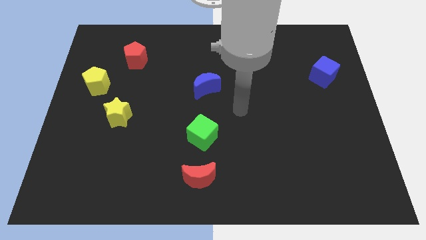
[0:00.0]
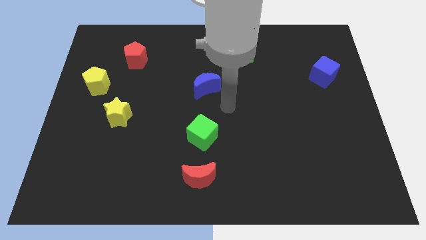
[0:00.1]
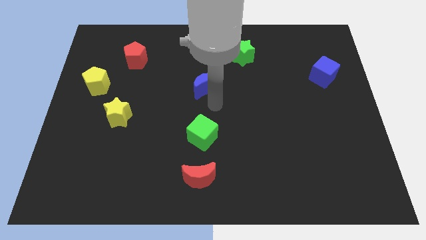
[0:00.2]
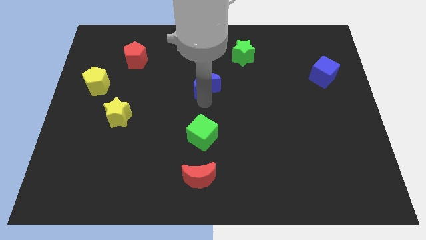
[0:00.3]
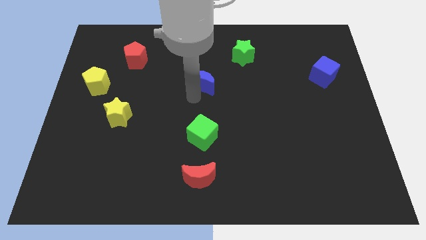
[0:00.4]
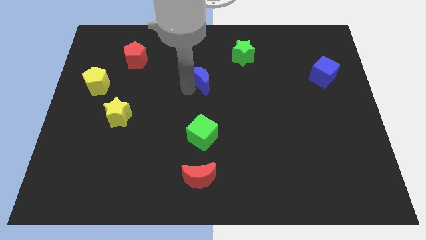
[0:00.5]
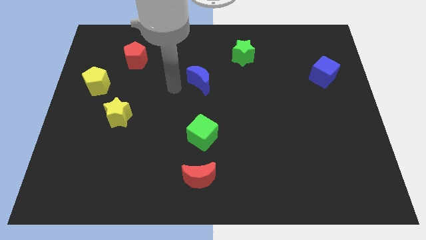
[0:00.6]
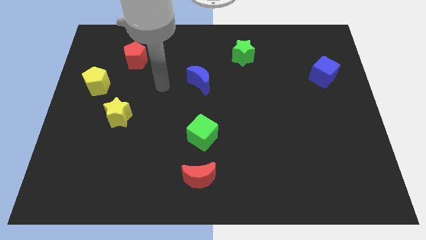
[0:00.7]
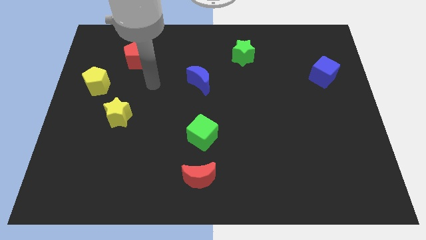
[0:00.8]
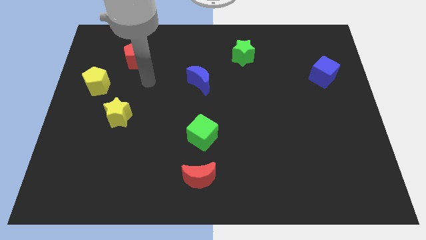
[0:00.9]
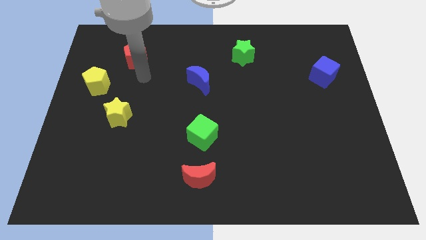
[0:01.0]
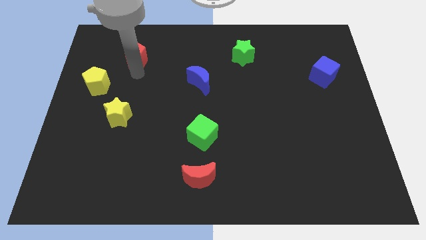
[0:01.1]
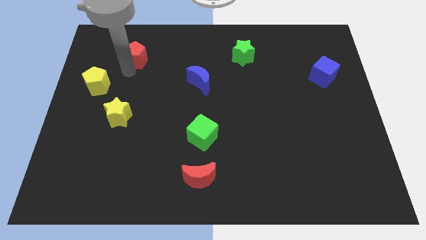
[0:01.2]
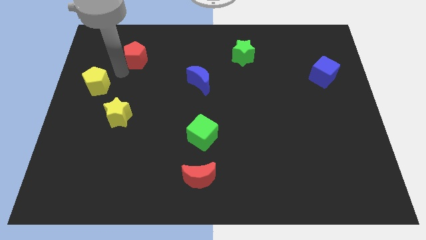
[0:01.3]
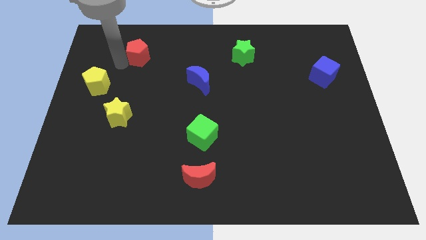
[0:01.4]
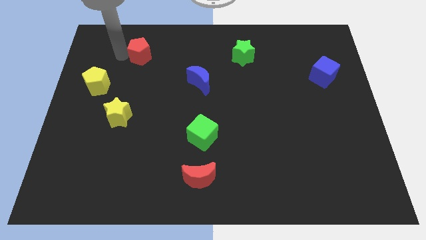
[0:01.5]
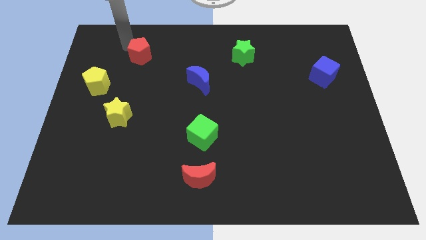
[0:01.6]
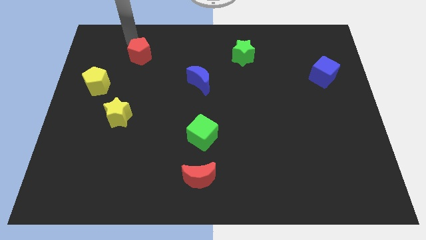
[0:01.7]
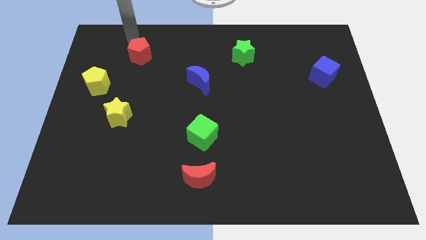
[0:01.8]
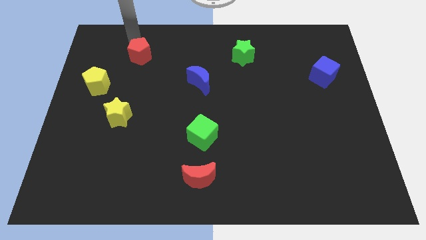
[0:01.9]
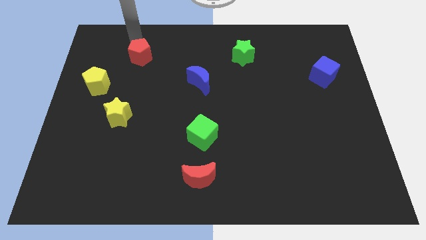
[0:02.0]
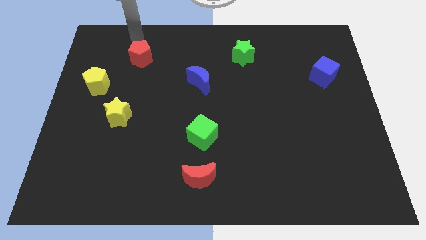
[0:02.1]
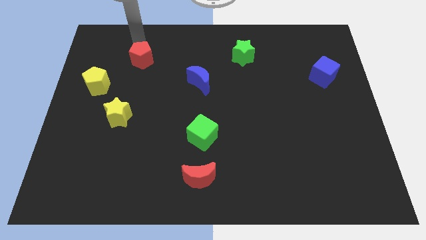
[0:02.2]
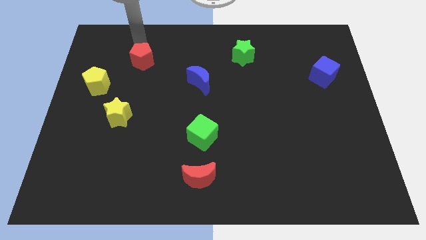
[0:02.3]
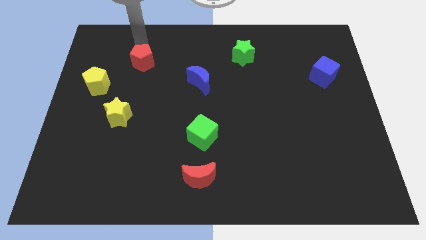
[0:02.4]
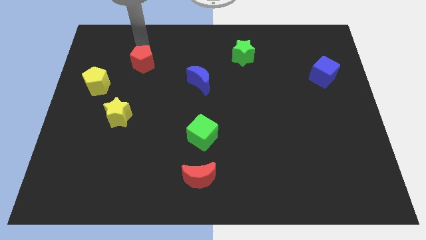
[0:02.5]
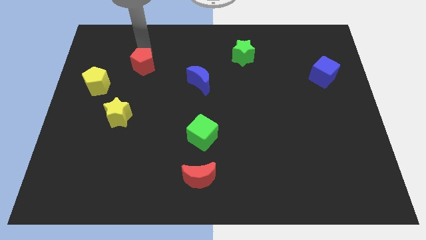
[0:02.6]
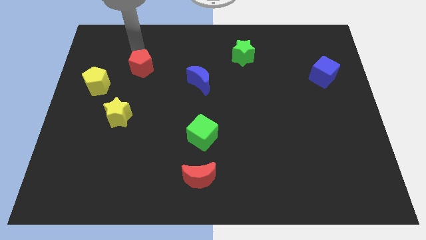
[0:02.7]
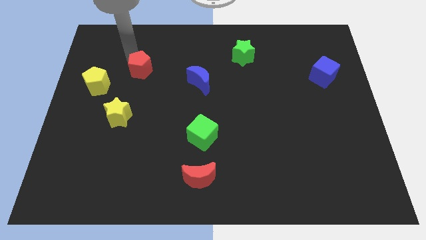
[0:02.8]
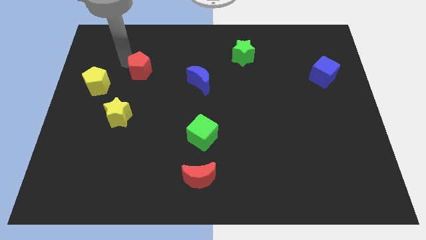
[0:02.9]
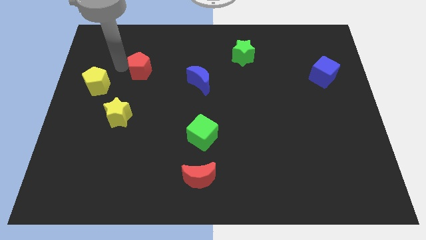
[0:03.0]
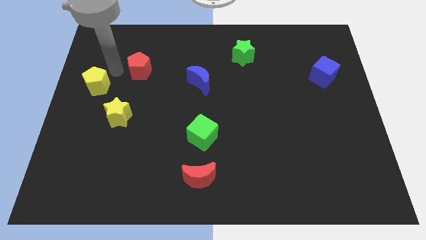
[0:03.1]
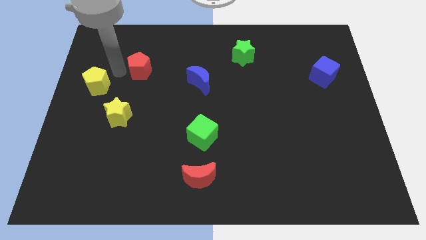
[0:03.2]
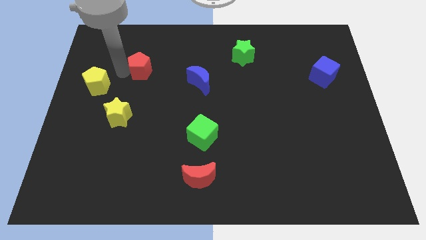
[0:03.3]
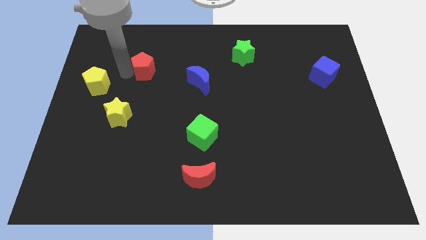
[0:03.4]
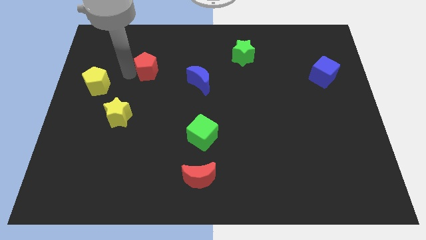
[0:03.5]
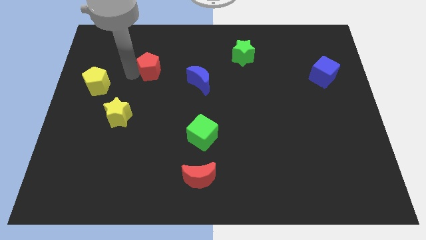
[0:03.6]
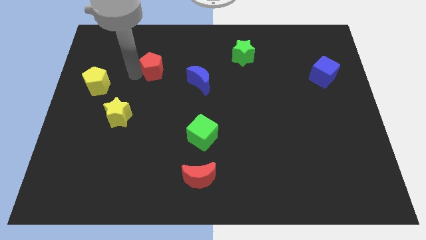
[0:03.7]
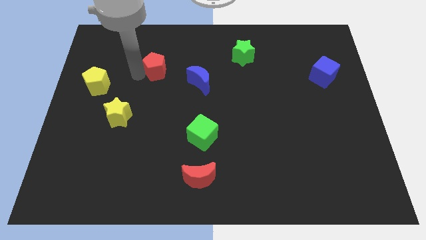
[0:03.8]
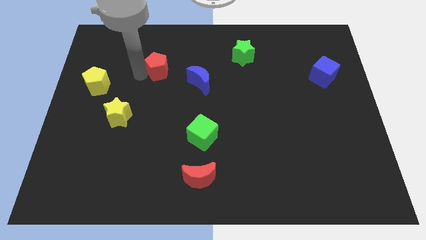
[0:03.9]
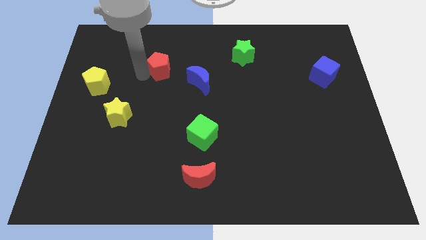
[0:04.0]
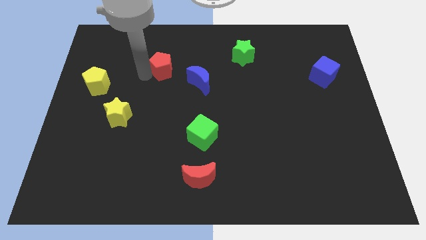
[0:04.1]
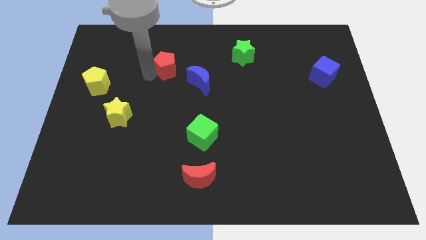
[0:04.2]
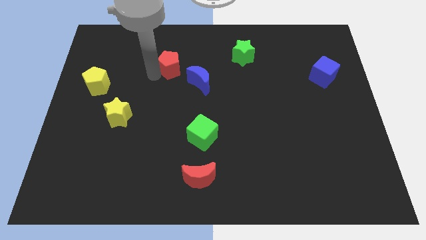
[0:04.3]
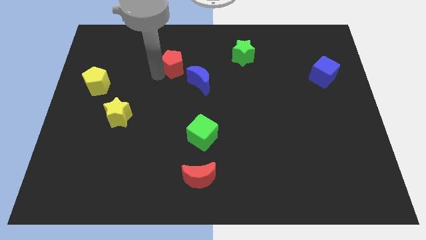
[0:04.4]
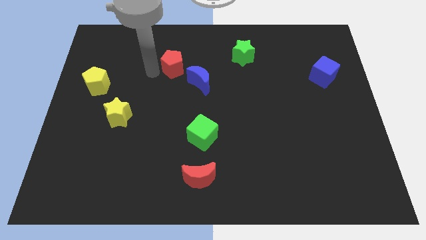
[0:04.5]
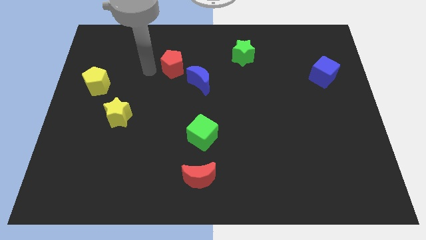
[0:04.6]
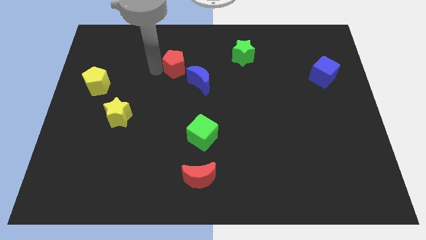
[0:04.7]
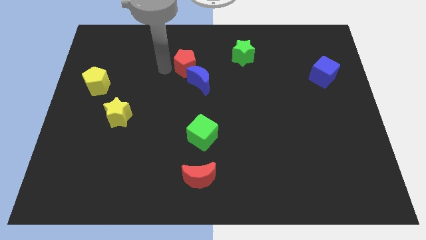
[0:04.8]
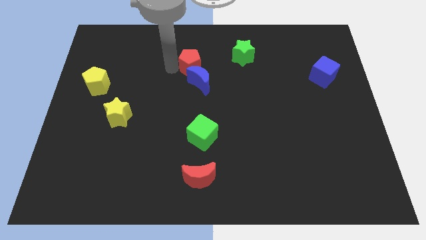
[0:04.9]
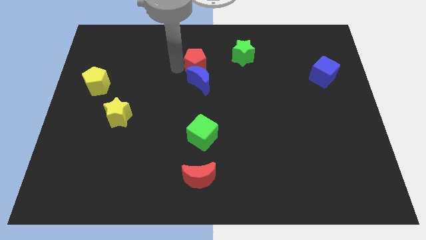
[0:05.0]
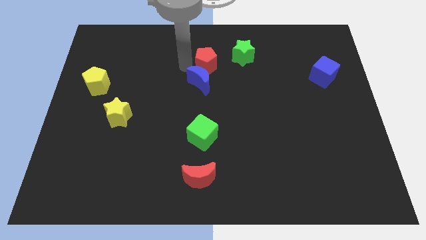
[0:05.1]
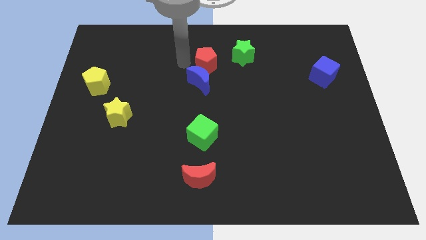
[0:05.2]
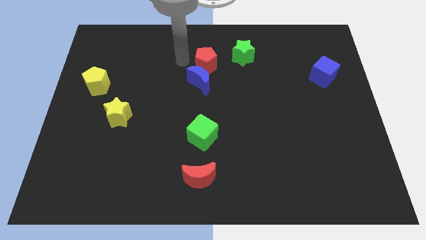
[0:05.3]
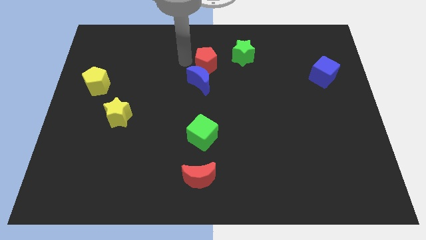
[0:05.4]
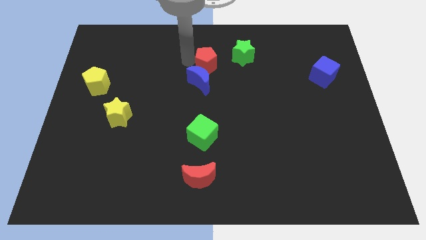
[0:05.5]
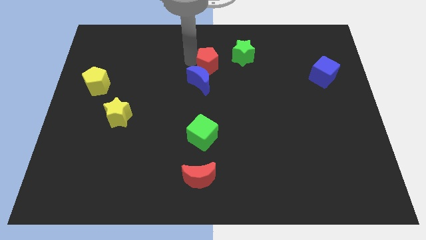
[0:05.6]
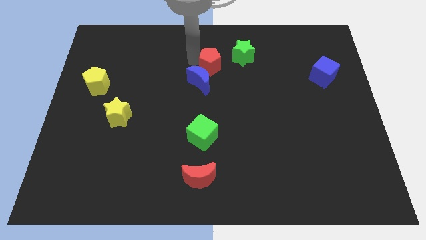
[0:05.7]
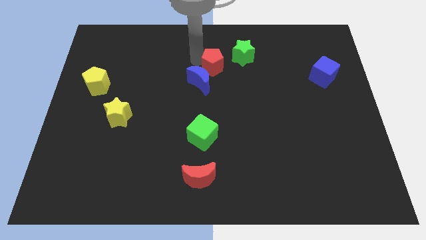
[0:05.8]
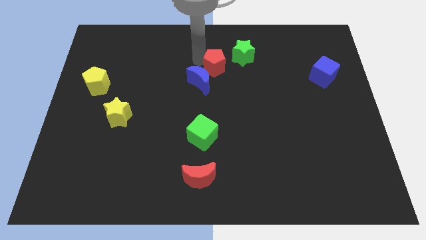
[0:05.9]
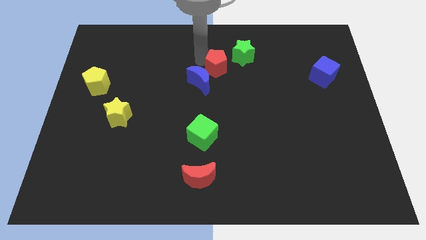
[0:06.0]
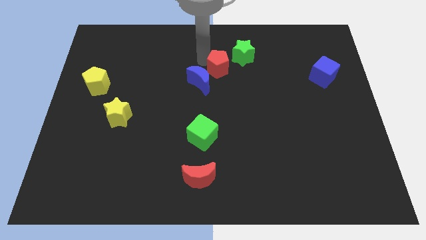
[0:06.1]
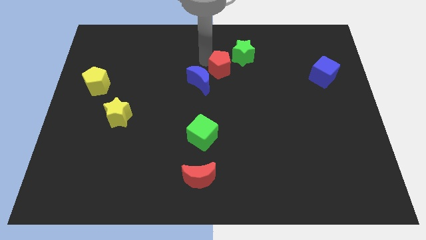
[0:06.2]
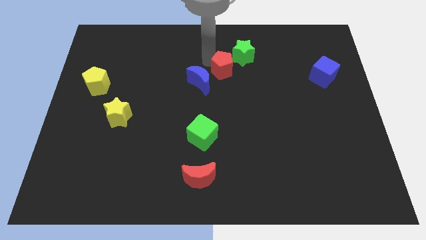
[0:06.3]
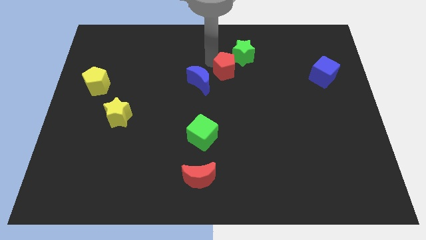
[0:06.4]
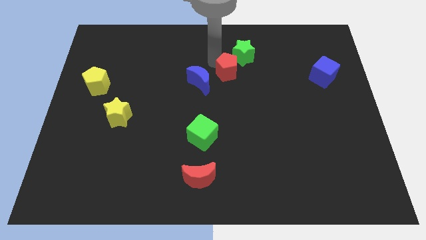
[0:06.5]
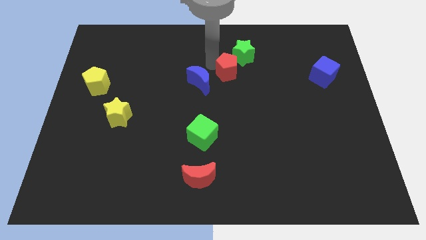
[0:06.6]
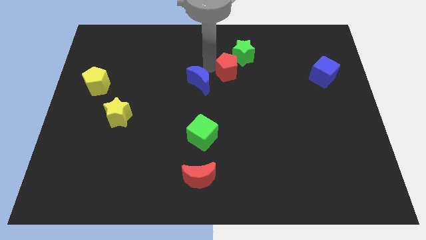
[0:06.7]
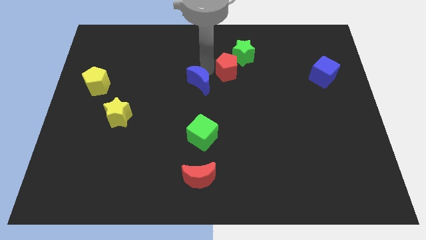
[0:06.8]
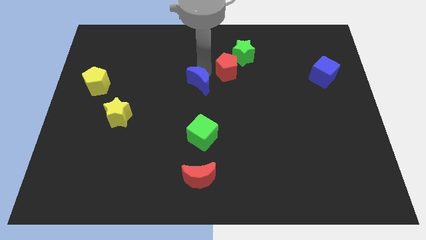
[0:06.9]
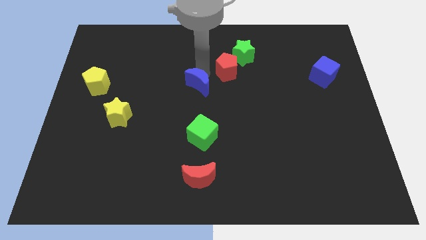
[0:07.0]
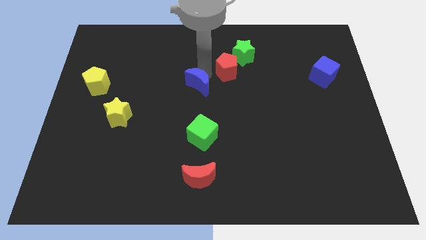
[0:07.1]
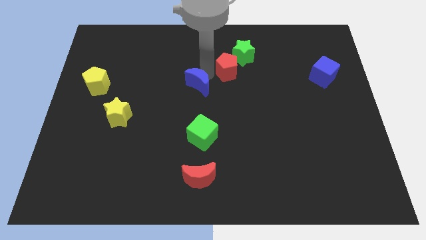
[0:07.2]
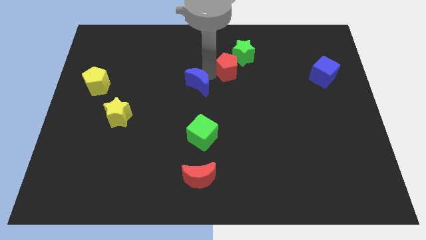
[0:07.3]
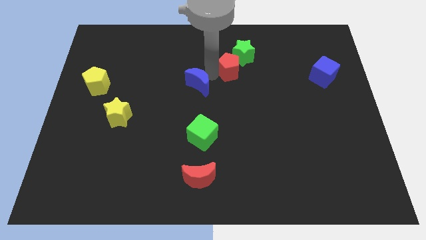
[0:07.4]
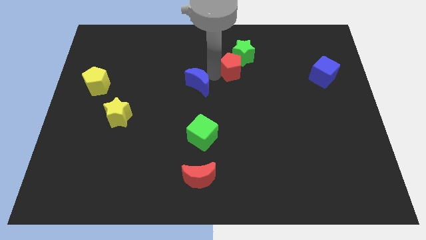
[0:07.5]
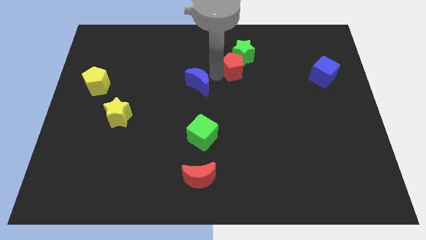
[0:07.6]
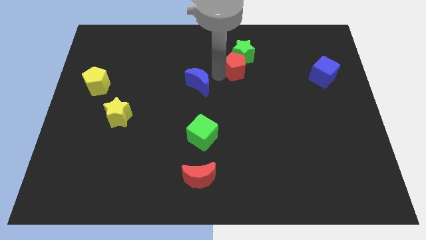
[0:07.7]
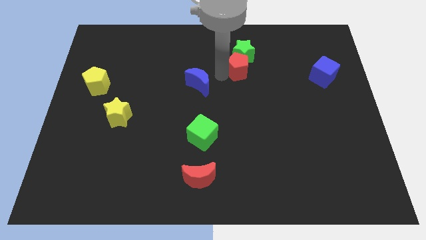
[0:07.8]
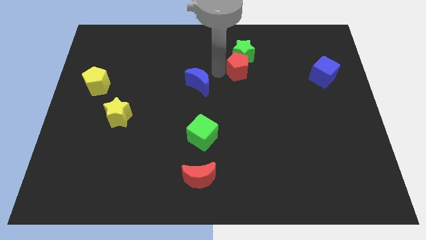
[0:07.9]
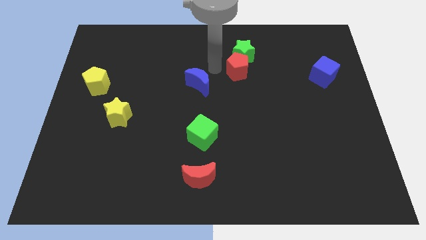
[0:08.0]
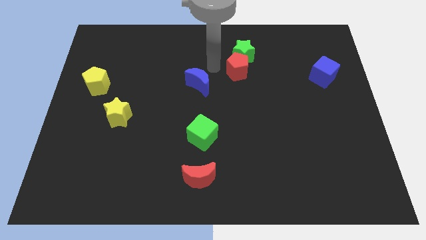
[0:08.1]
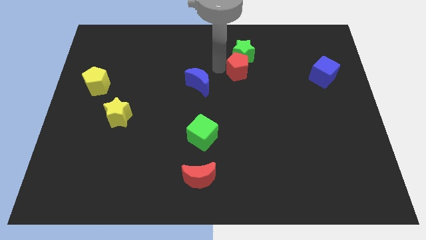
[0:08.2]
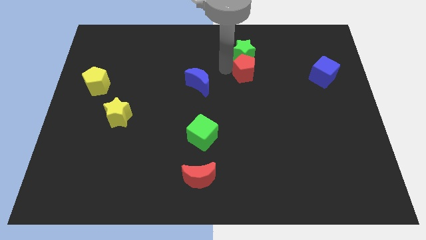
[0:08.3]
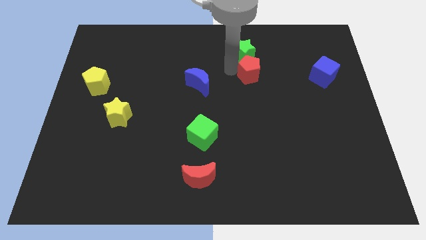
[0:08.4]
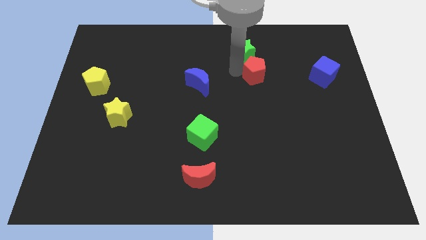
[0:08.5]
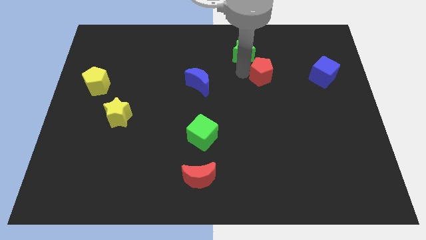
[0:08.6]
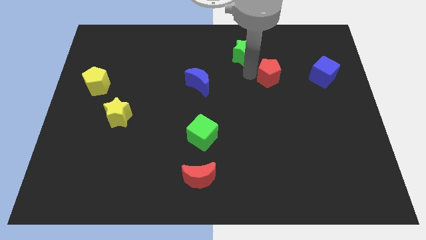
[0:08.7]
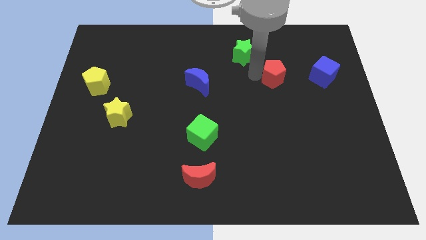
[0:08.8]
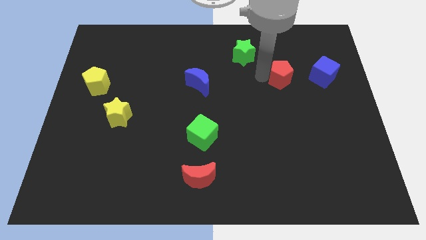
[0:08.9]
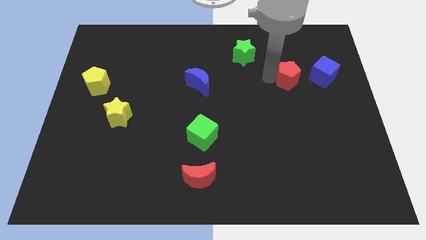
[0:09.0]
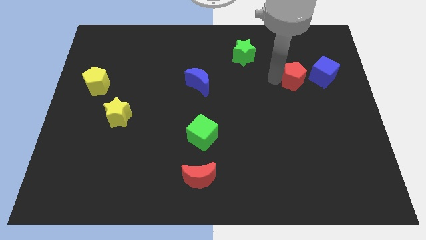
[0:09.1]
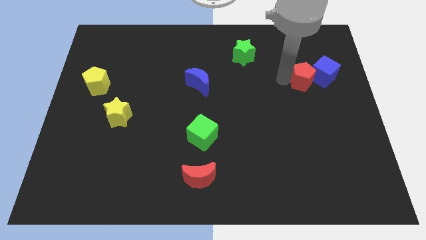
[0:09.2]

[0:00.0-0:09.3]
move the red pentagon towards the blue cube
